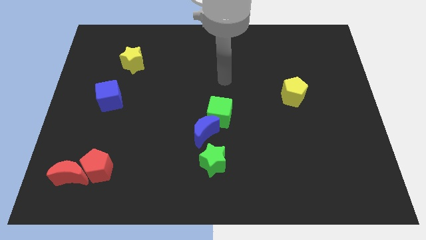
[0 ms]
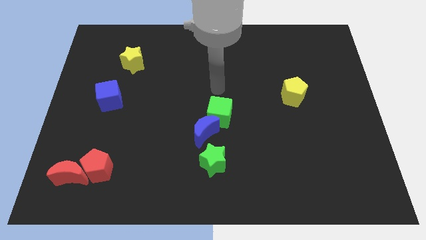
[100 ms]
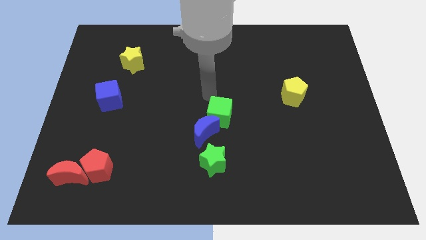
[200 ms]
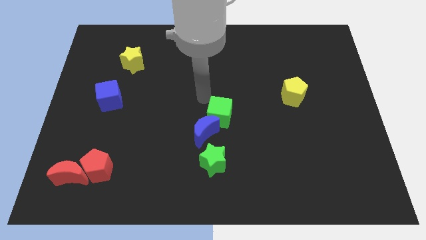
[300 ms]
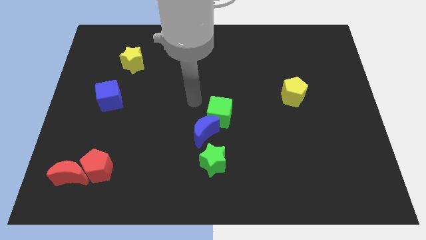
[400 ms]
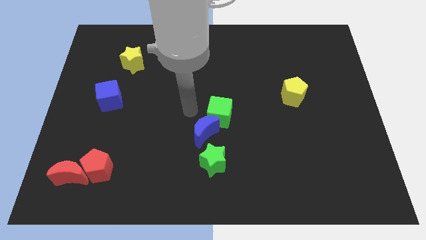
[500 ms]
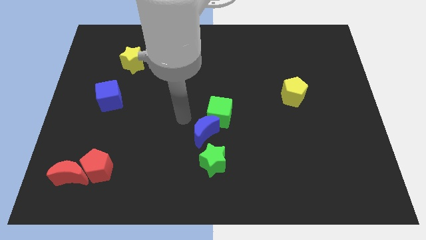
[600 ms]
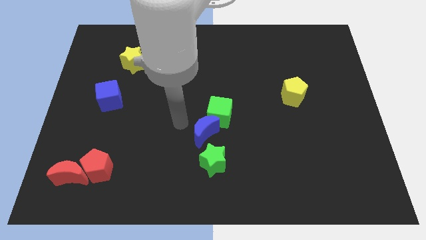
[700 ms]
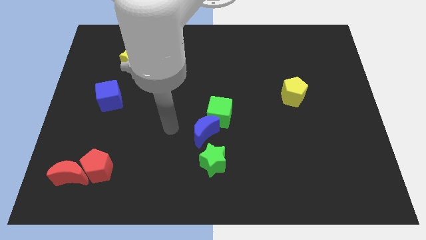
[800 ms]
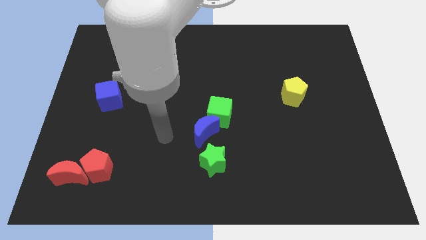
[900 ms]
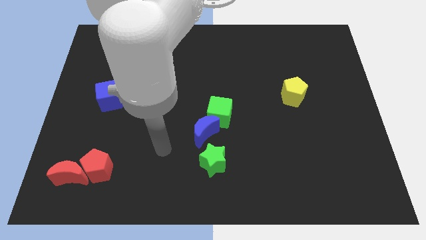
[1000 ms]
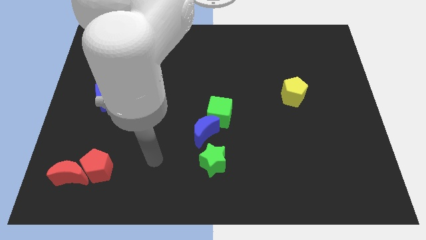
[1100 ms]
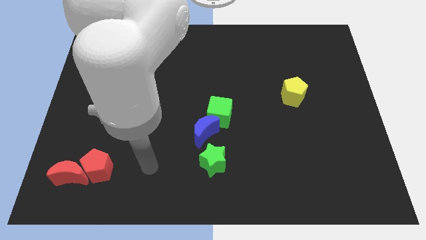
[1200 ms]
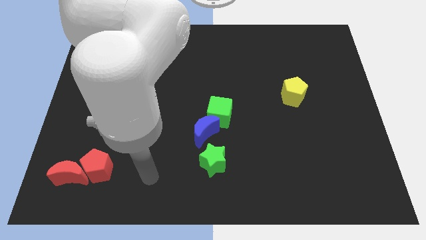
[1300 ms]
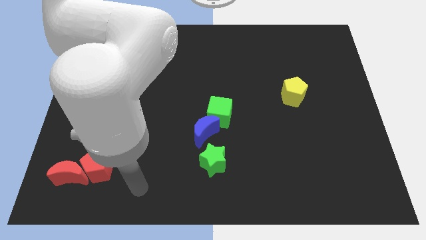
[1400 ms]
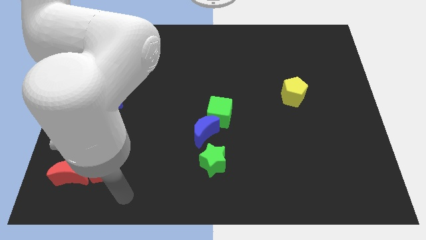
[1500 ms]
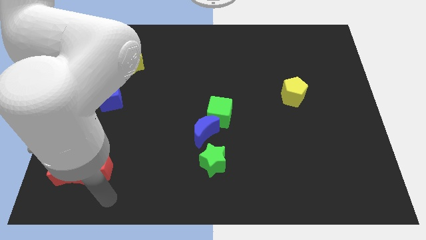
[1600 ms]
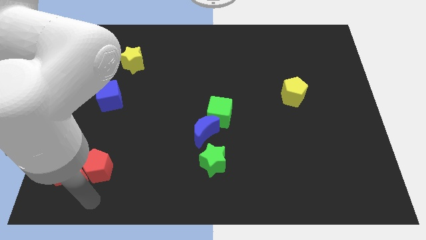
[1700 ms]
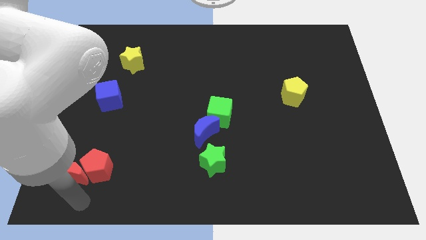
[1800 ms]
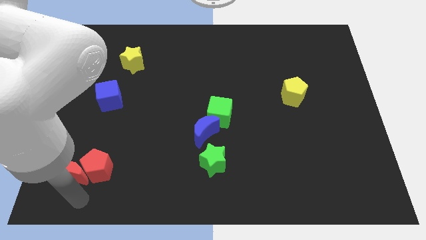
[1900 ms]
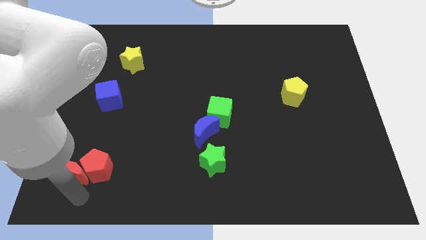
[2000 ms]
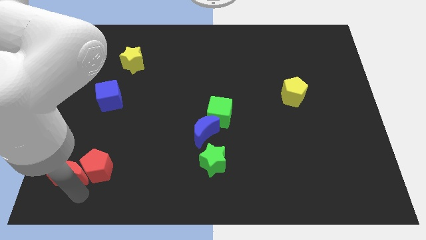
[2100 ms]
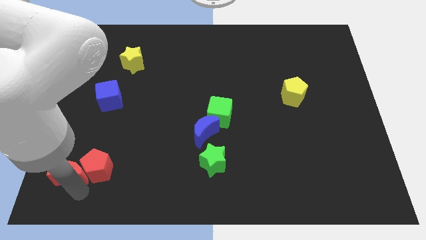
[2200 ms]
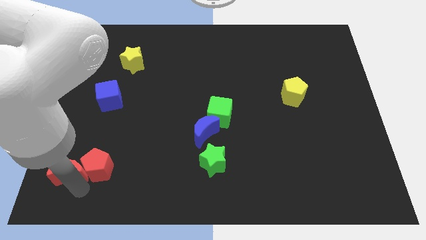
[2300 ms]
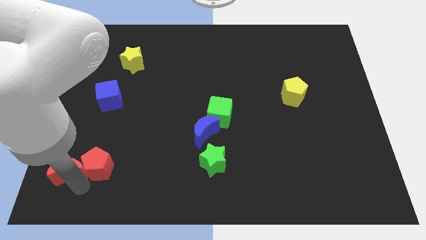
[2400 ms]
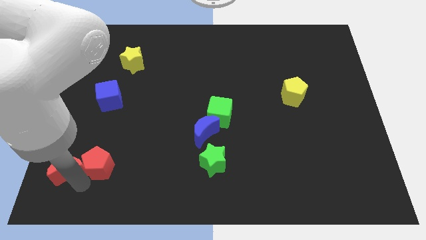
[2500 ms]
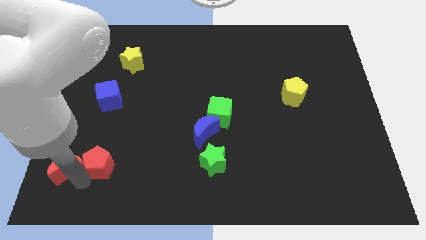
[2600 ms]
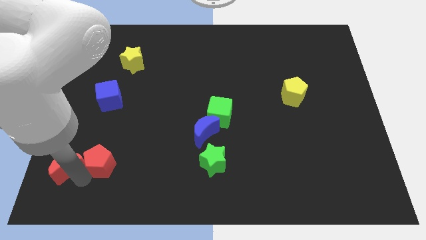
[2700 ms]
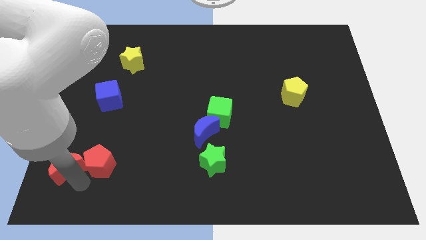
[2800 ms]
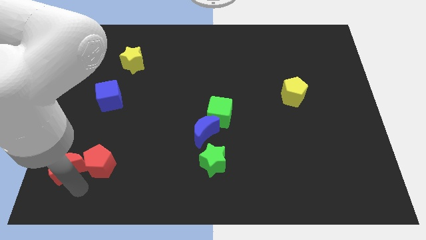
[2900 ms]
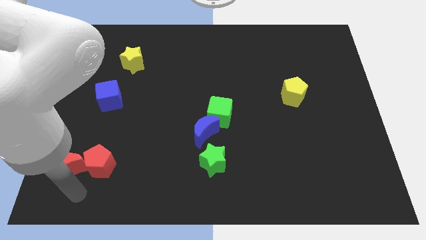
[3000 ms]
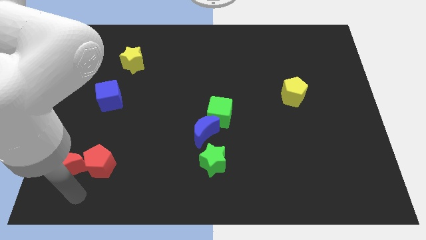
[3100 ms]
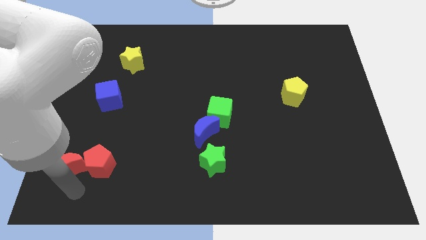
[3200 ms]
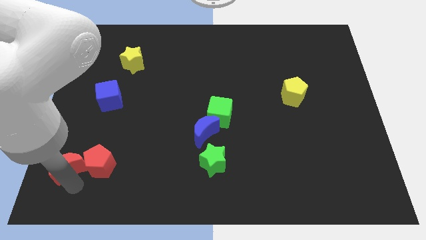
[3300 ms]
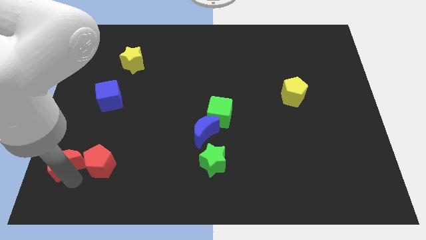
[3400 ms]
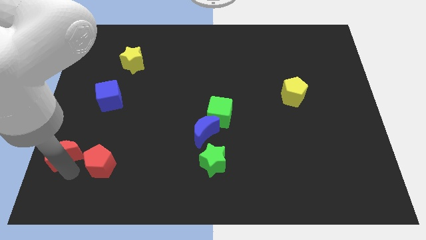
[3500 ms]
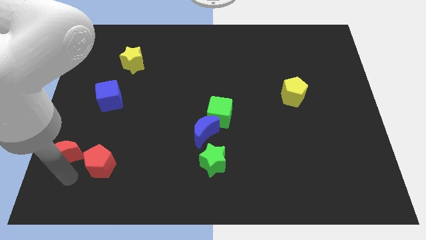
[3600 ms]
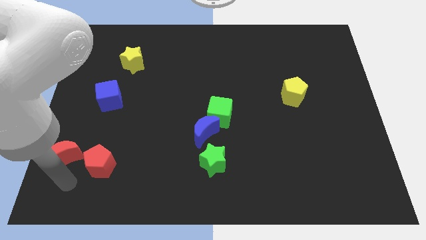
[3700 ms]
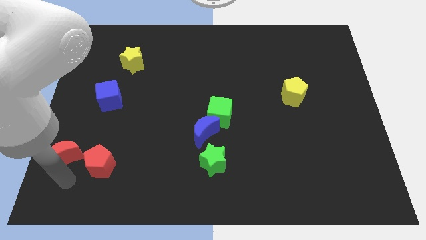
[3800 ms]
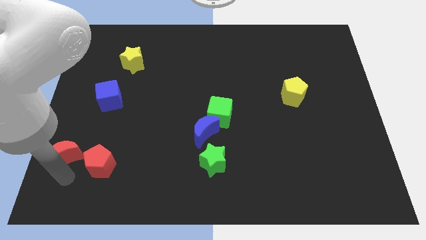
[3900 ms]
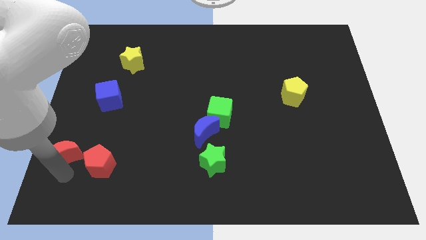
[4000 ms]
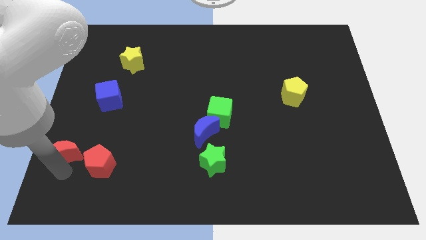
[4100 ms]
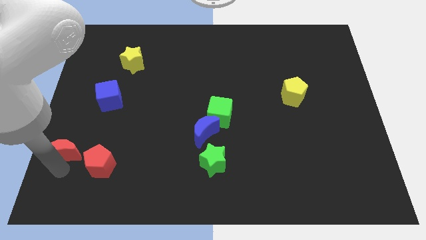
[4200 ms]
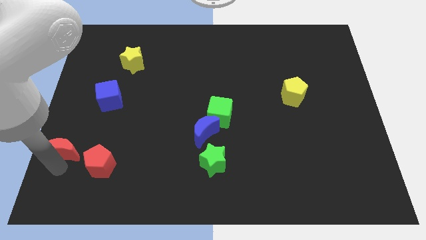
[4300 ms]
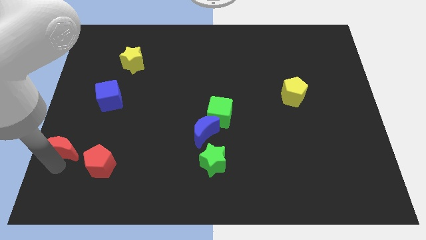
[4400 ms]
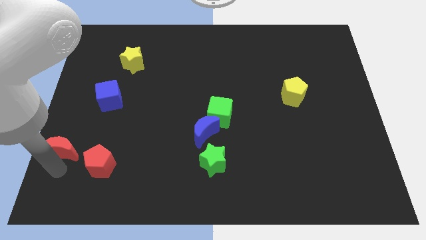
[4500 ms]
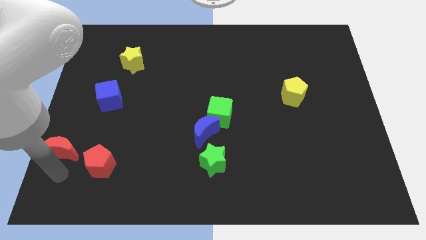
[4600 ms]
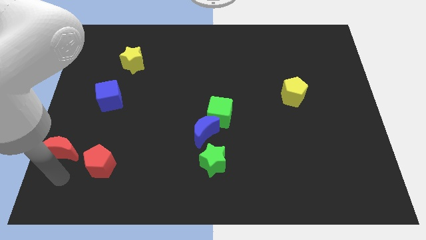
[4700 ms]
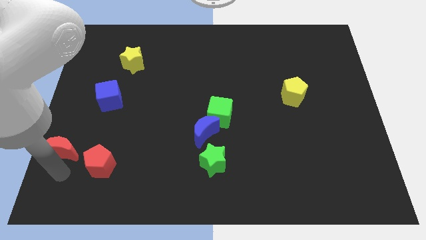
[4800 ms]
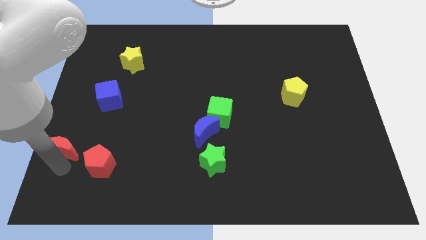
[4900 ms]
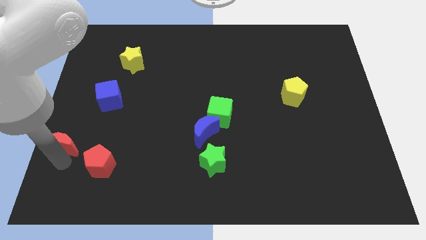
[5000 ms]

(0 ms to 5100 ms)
slide the red moon to the left side of the board

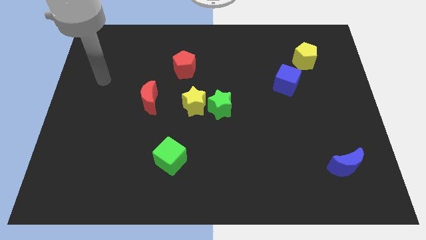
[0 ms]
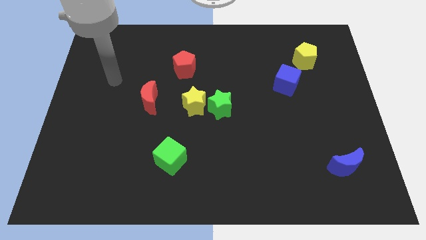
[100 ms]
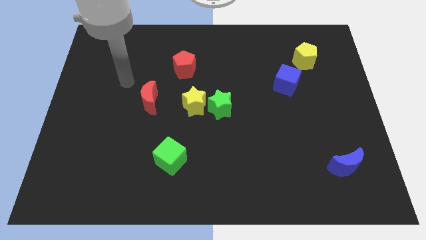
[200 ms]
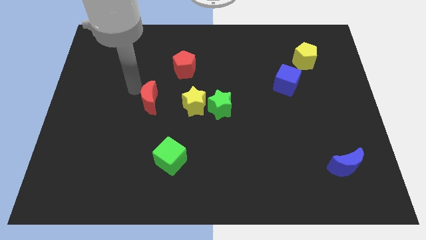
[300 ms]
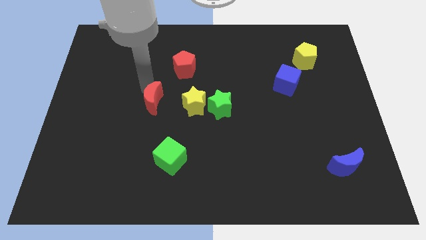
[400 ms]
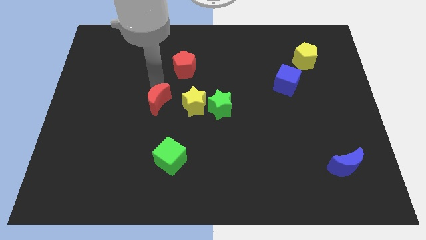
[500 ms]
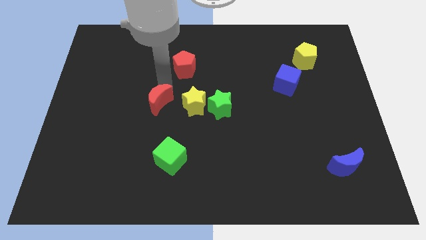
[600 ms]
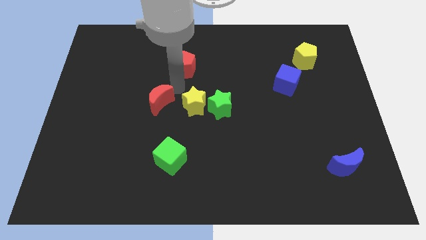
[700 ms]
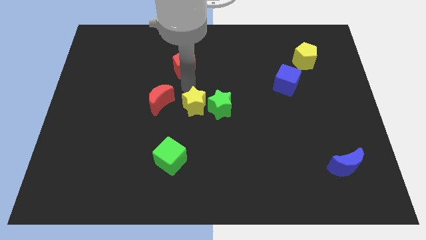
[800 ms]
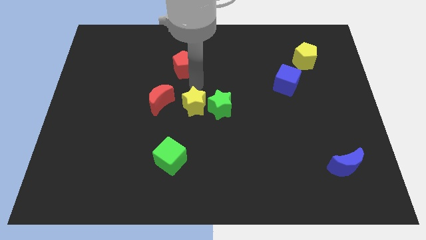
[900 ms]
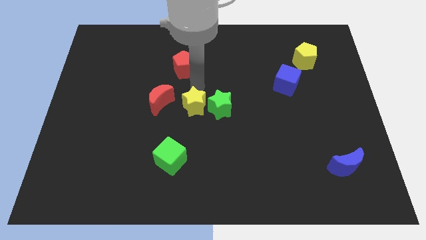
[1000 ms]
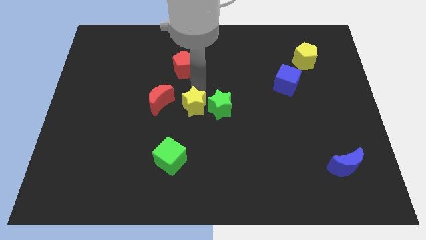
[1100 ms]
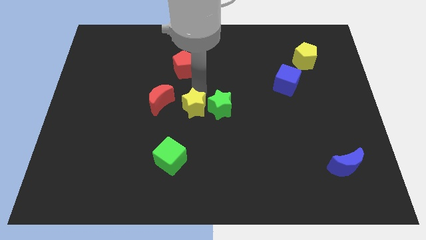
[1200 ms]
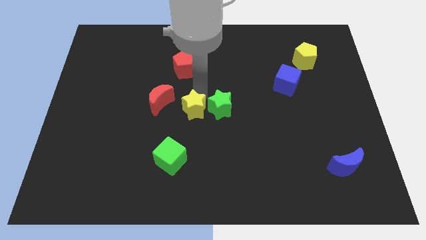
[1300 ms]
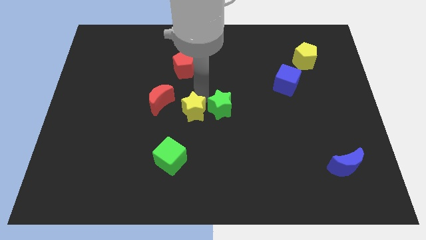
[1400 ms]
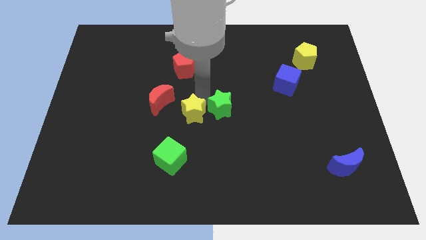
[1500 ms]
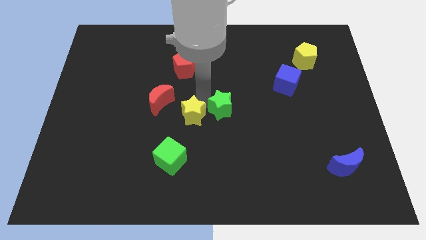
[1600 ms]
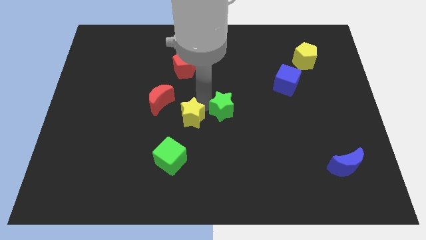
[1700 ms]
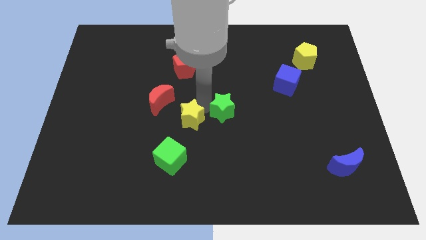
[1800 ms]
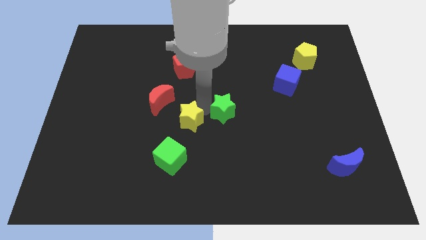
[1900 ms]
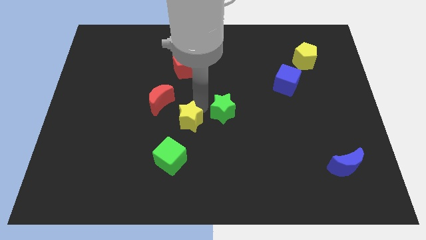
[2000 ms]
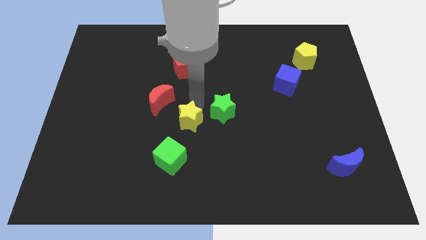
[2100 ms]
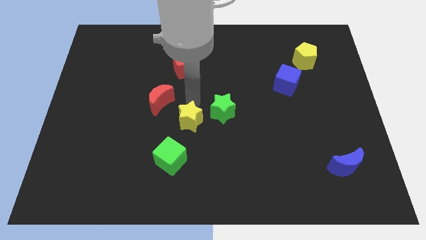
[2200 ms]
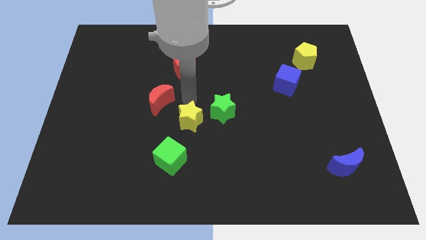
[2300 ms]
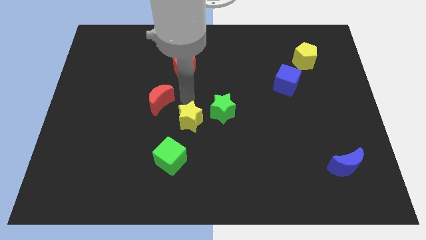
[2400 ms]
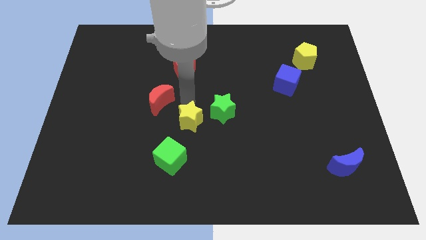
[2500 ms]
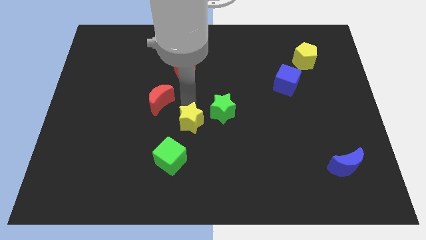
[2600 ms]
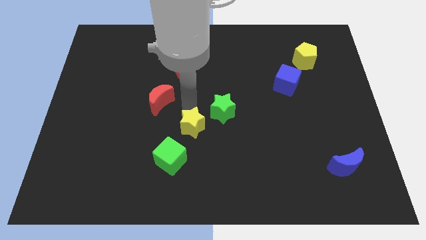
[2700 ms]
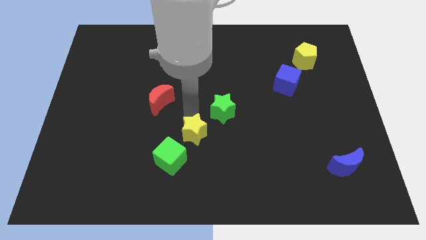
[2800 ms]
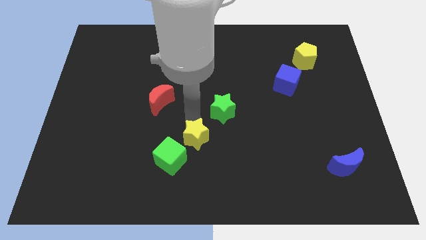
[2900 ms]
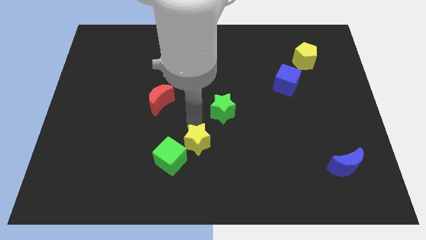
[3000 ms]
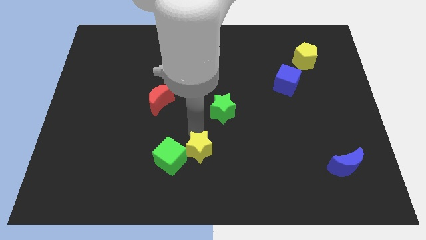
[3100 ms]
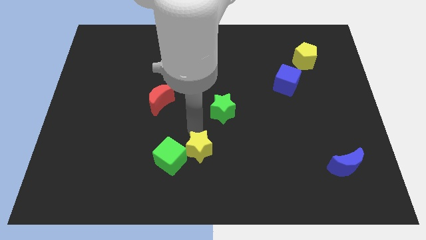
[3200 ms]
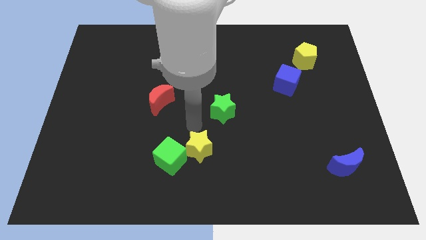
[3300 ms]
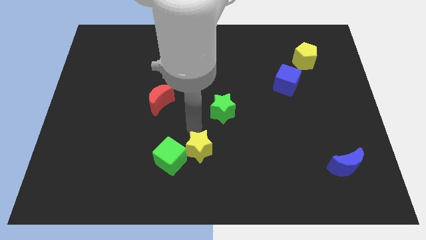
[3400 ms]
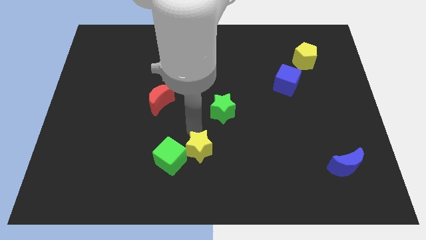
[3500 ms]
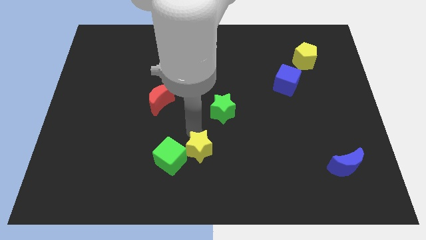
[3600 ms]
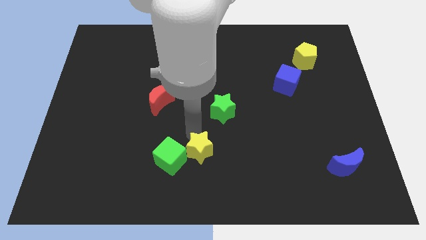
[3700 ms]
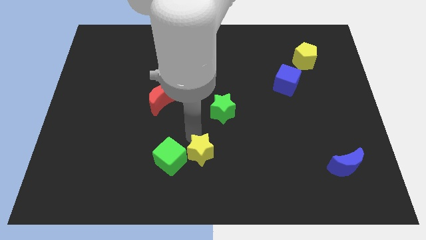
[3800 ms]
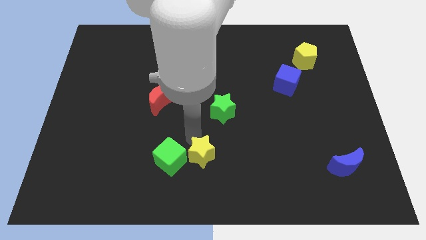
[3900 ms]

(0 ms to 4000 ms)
move the yellow star to the bottom
